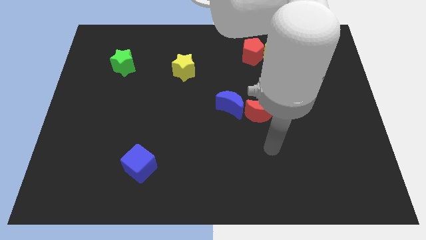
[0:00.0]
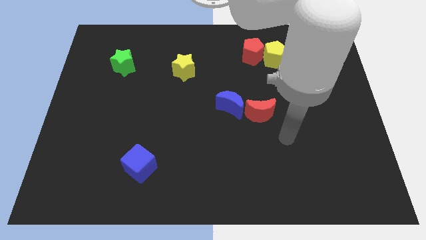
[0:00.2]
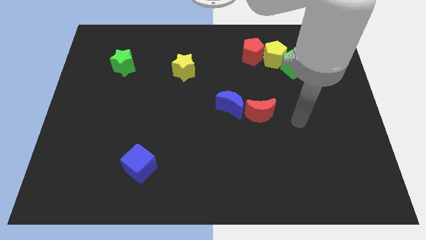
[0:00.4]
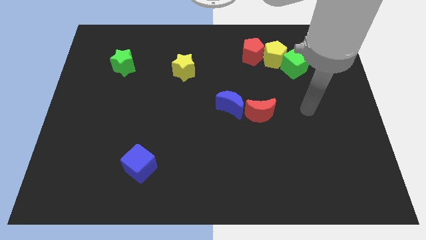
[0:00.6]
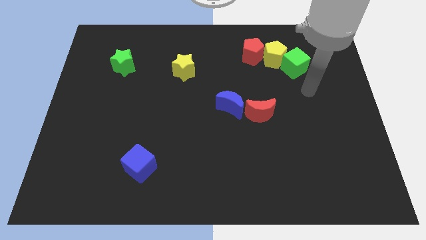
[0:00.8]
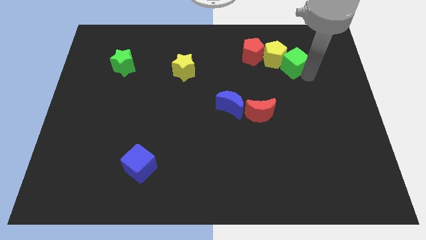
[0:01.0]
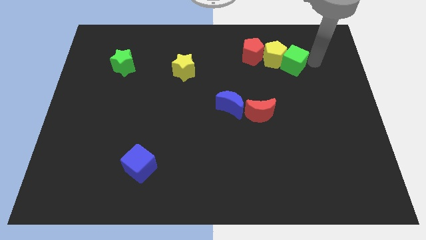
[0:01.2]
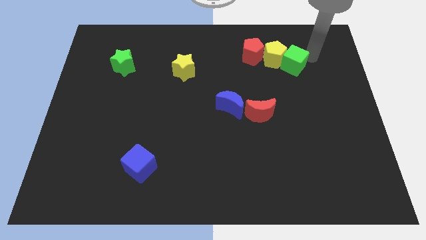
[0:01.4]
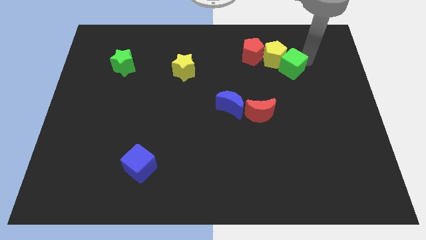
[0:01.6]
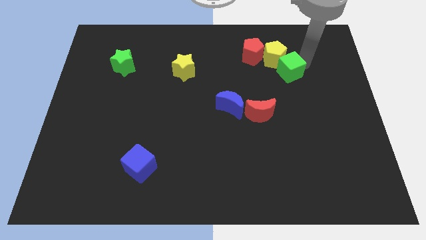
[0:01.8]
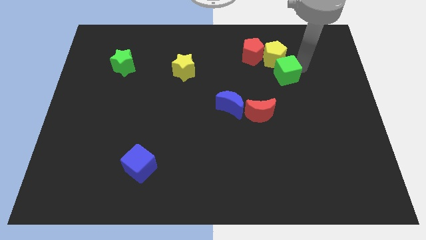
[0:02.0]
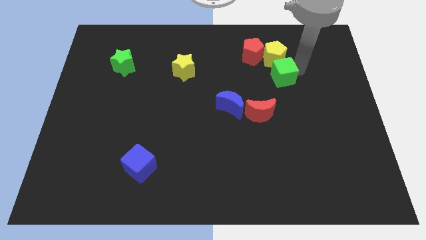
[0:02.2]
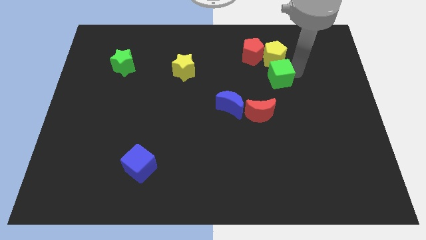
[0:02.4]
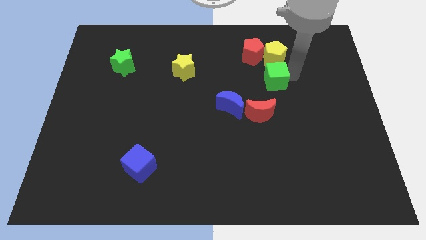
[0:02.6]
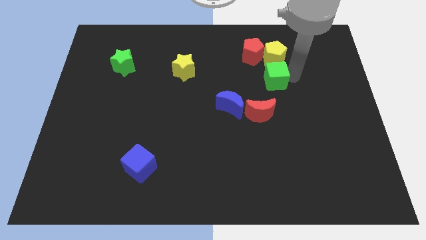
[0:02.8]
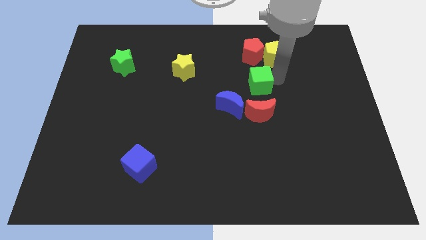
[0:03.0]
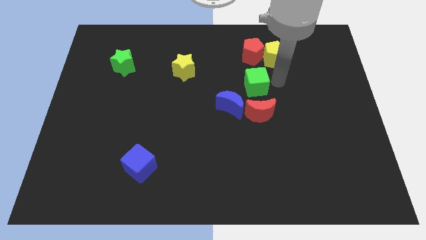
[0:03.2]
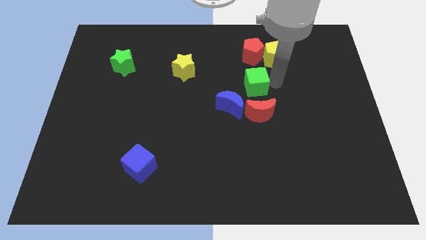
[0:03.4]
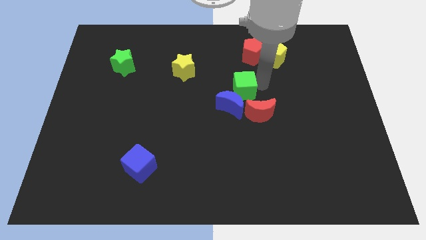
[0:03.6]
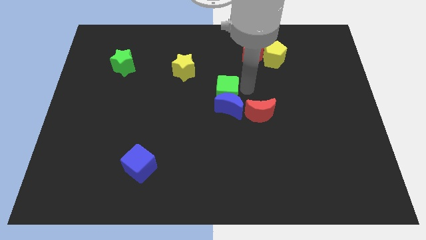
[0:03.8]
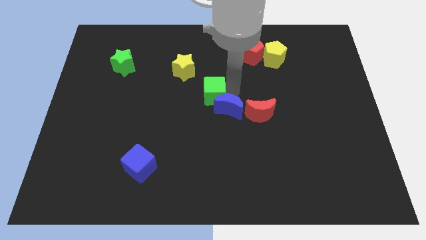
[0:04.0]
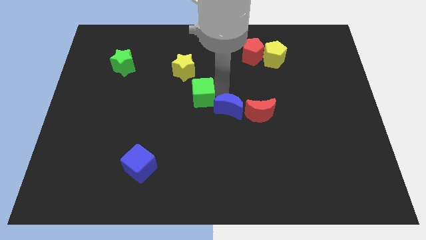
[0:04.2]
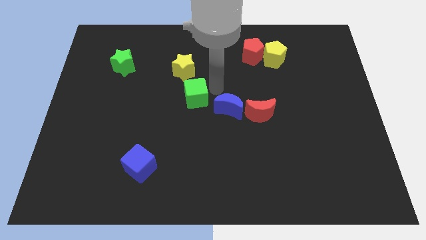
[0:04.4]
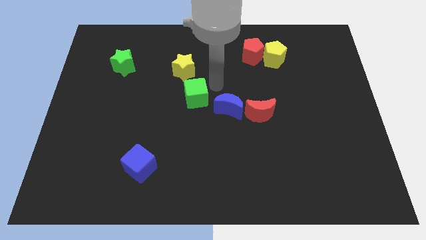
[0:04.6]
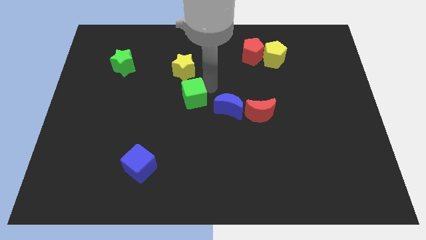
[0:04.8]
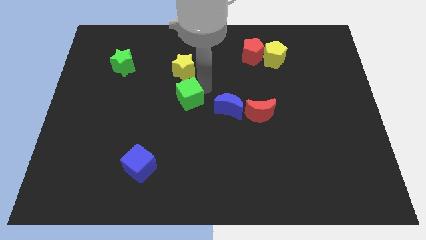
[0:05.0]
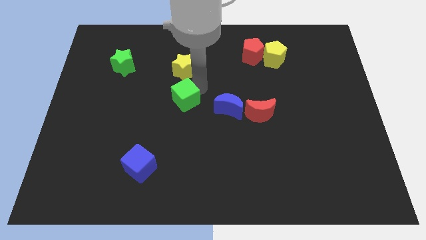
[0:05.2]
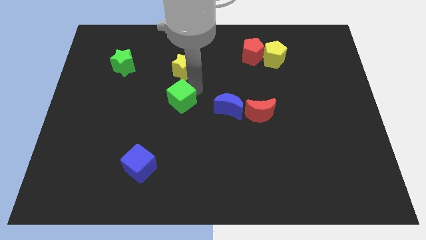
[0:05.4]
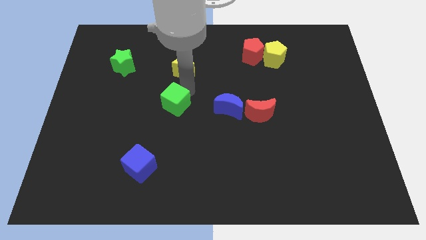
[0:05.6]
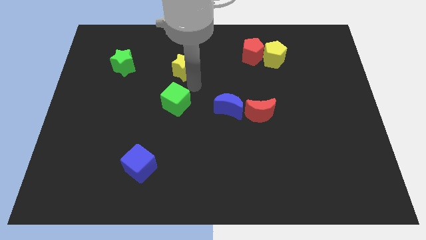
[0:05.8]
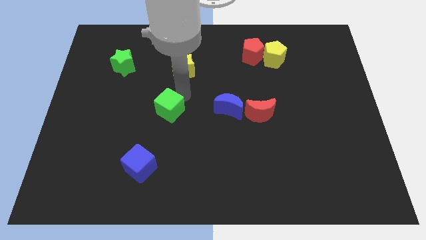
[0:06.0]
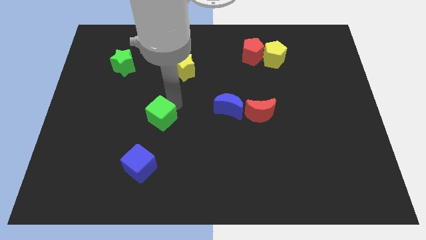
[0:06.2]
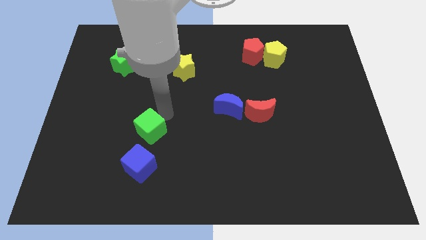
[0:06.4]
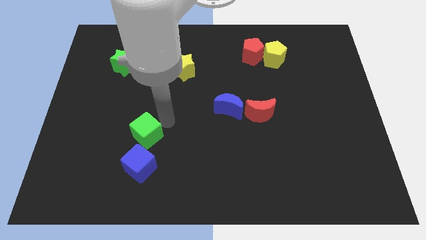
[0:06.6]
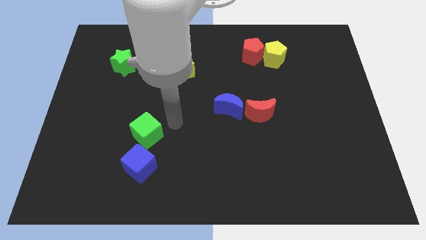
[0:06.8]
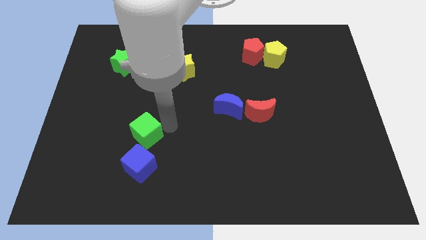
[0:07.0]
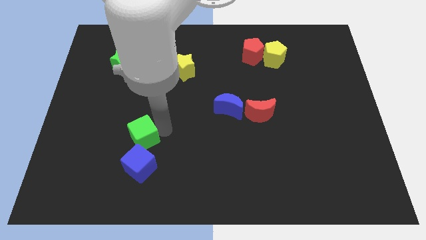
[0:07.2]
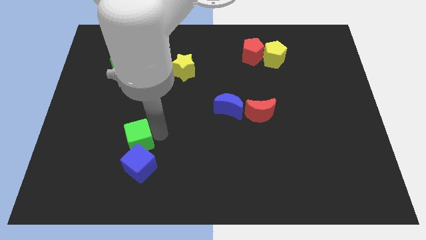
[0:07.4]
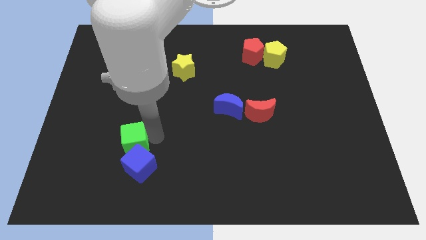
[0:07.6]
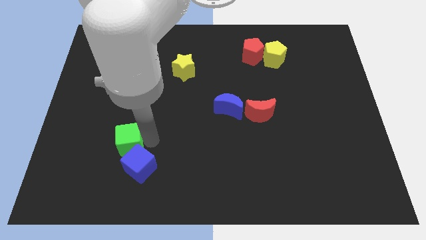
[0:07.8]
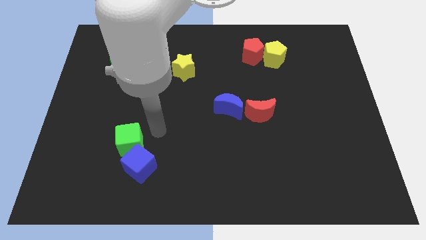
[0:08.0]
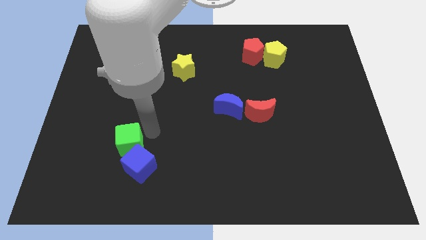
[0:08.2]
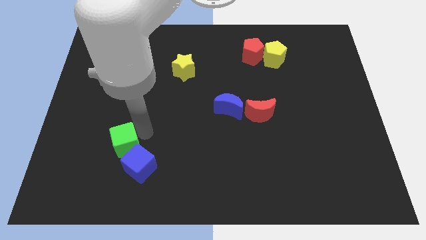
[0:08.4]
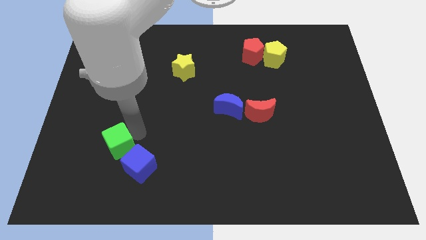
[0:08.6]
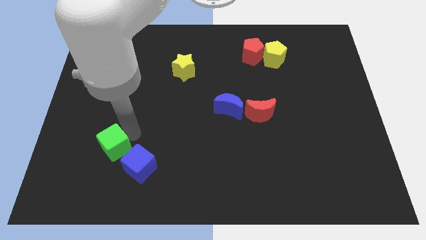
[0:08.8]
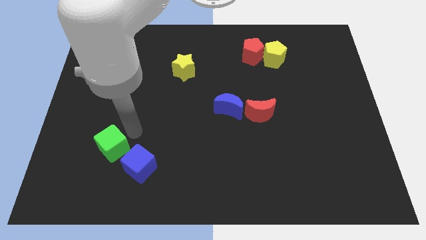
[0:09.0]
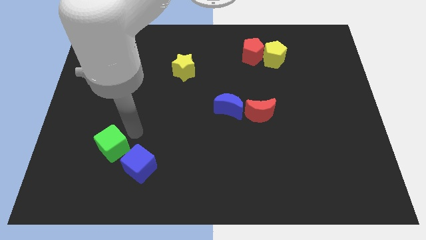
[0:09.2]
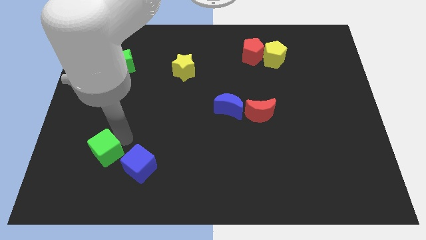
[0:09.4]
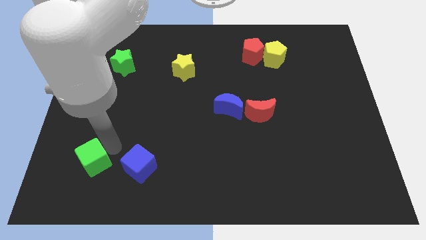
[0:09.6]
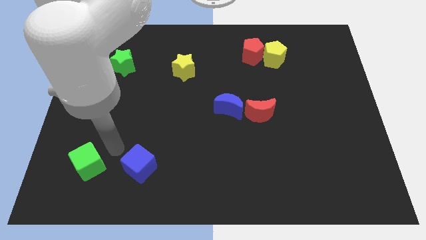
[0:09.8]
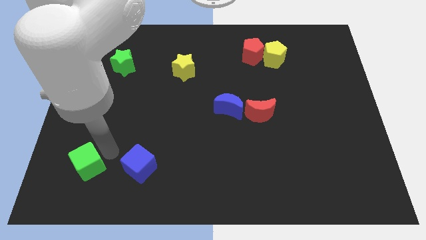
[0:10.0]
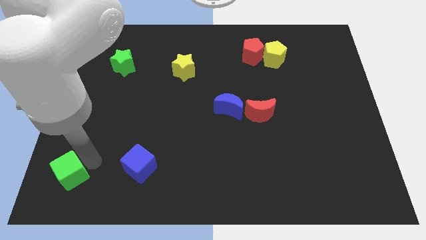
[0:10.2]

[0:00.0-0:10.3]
move the green cube to the lower left corner
